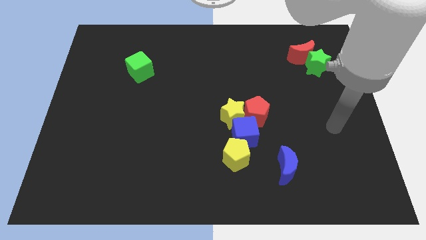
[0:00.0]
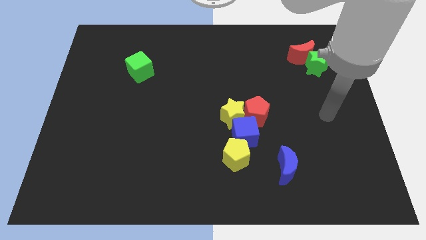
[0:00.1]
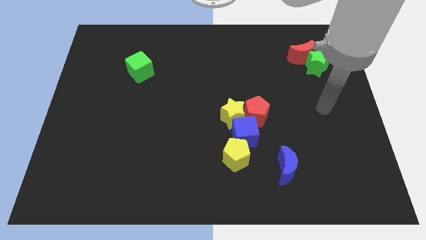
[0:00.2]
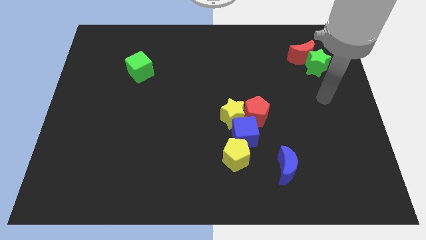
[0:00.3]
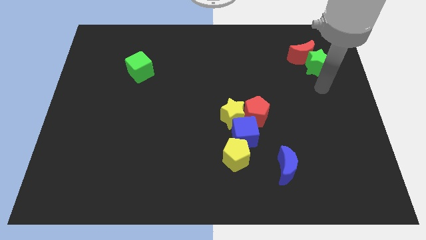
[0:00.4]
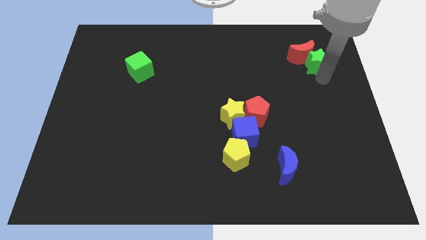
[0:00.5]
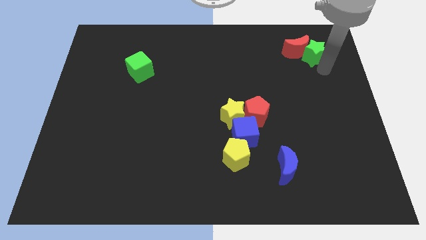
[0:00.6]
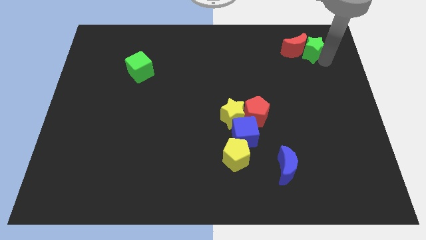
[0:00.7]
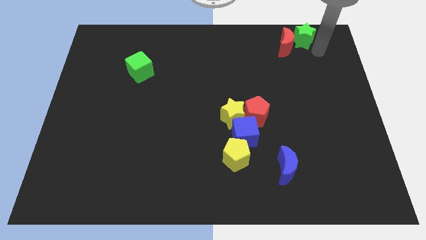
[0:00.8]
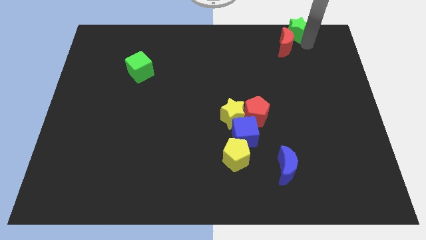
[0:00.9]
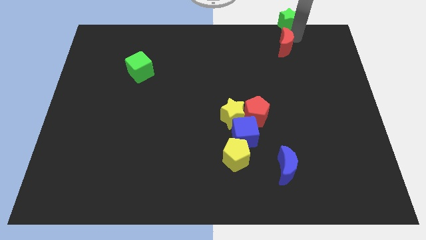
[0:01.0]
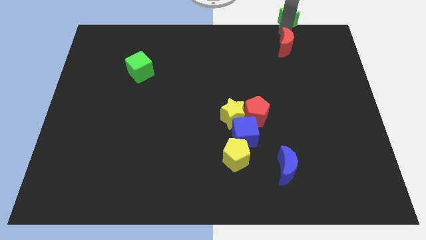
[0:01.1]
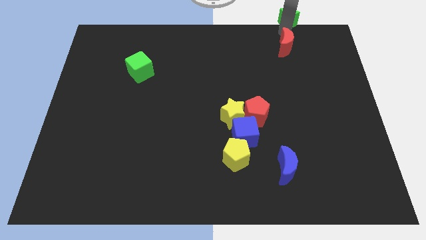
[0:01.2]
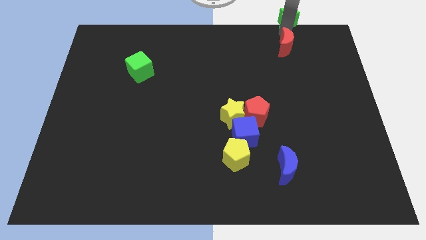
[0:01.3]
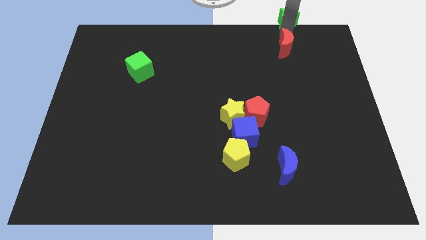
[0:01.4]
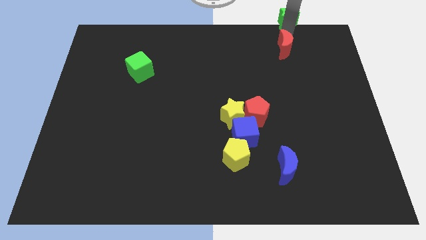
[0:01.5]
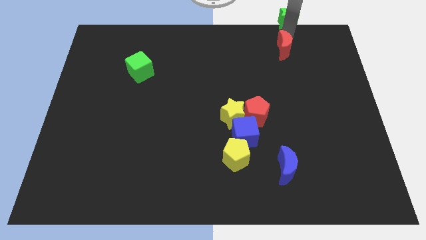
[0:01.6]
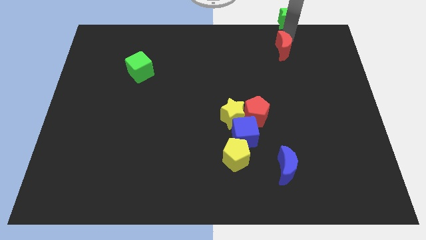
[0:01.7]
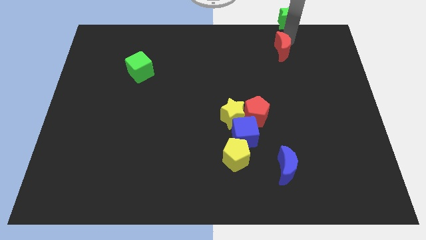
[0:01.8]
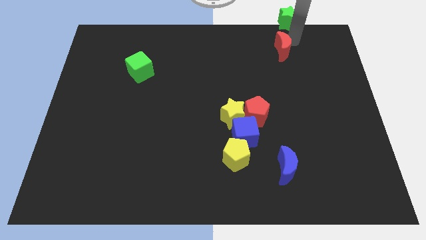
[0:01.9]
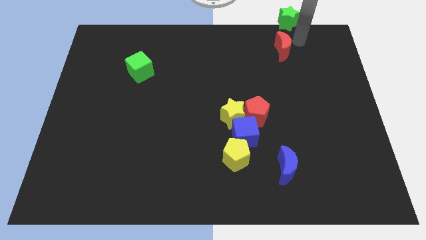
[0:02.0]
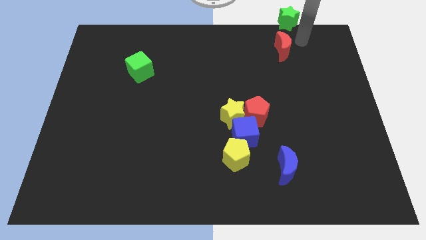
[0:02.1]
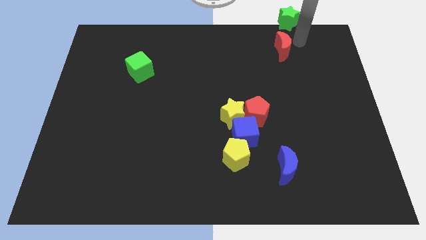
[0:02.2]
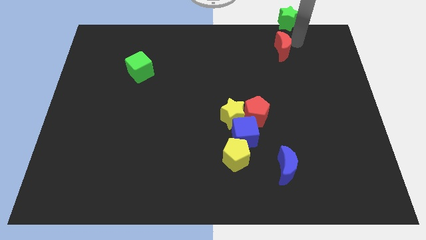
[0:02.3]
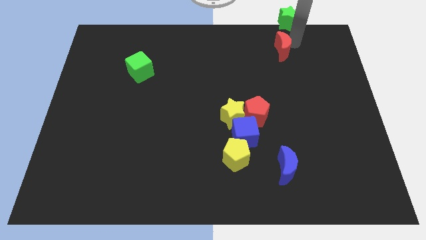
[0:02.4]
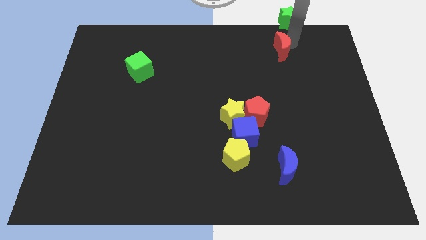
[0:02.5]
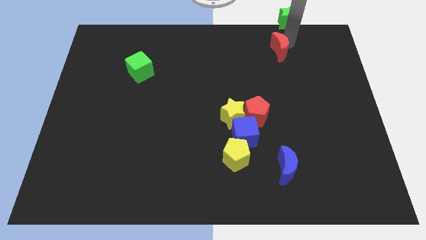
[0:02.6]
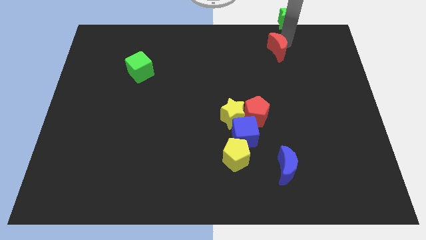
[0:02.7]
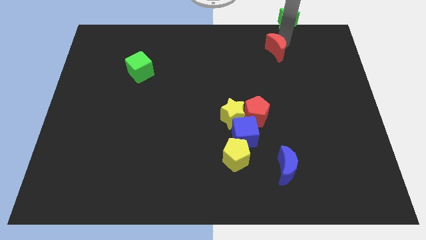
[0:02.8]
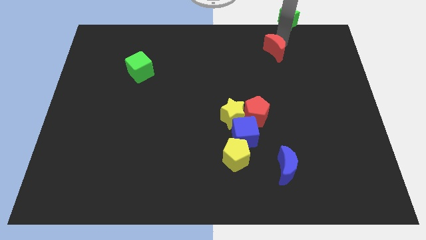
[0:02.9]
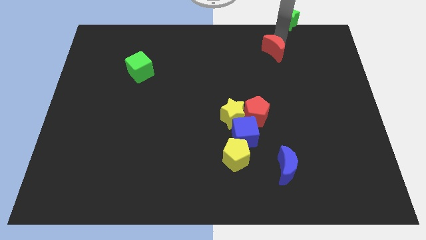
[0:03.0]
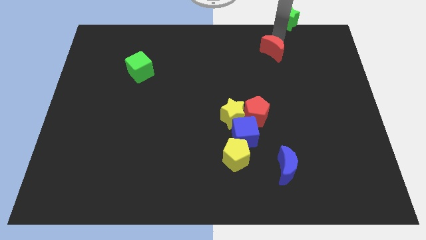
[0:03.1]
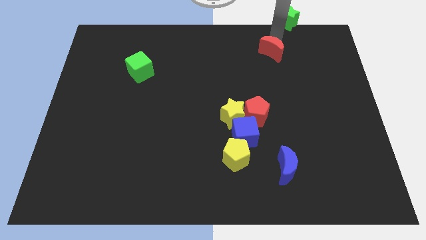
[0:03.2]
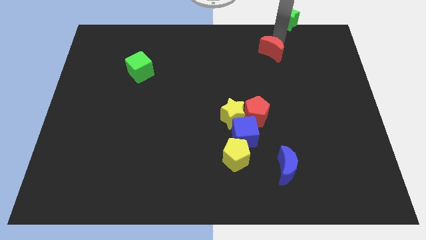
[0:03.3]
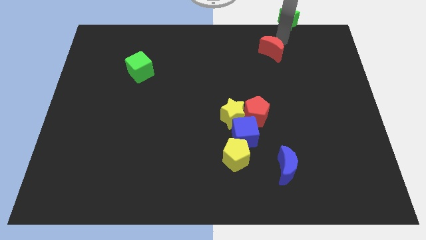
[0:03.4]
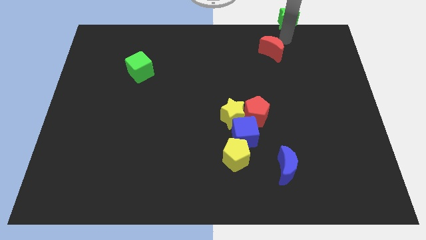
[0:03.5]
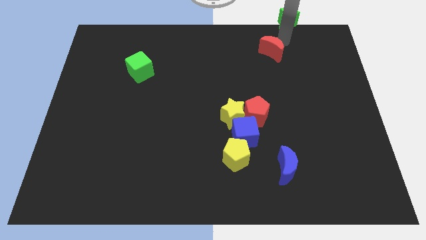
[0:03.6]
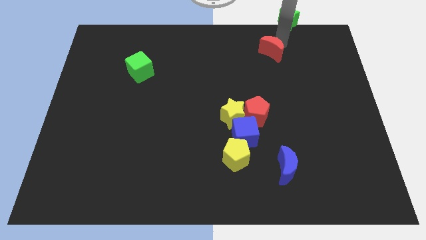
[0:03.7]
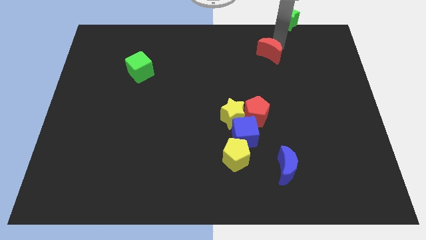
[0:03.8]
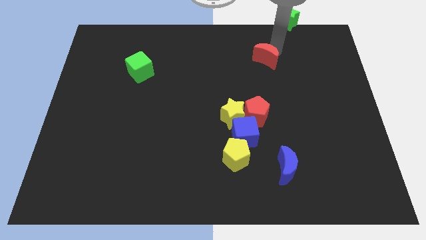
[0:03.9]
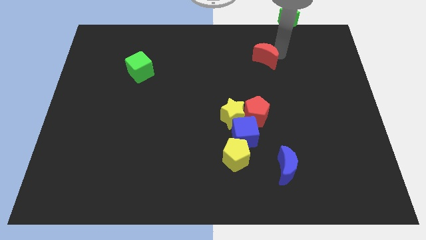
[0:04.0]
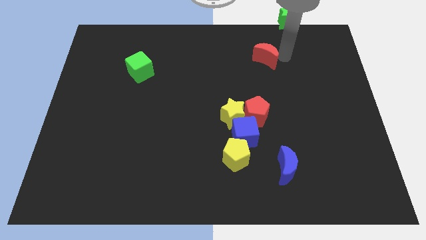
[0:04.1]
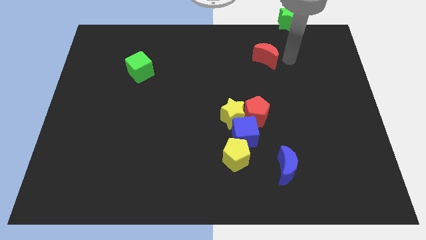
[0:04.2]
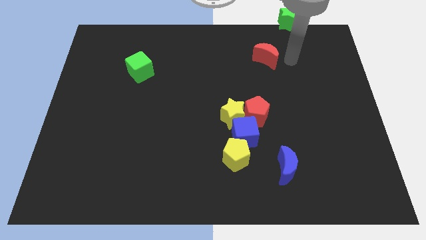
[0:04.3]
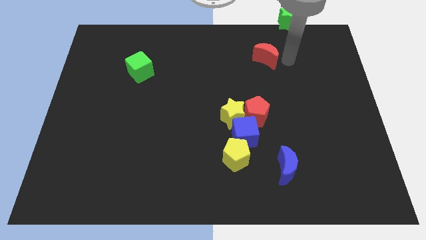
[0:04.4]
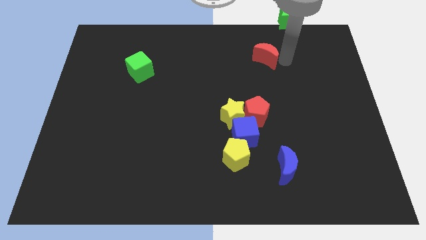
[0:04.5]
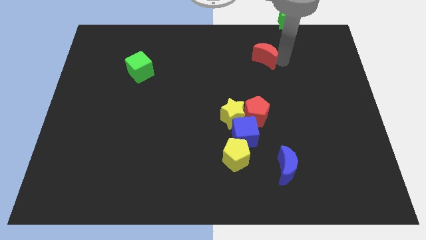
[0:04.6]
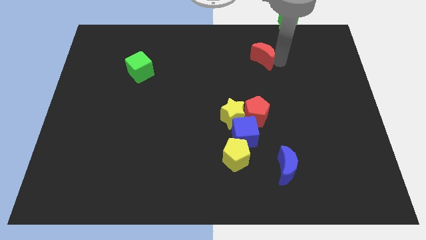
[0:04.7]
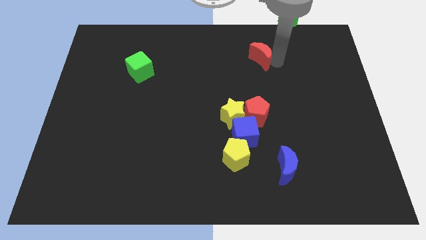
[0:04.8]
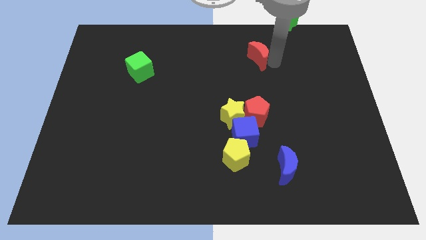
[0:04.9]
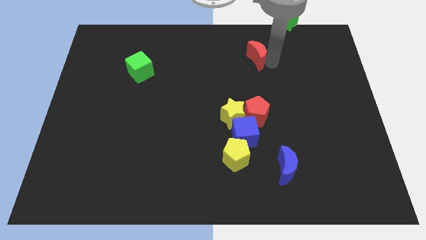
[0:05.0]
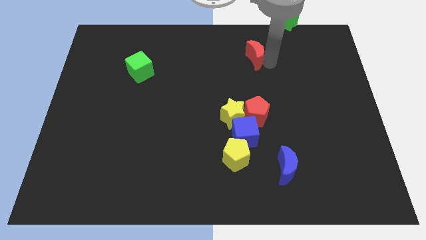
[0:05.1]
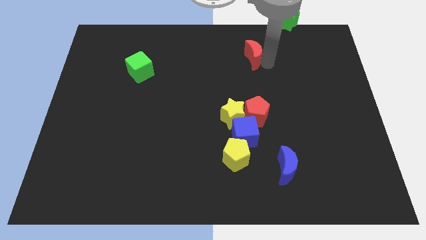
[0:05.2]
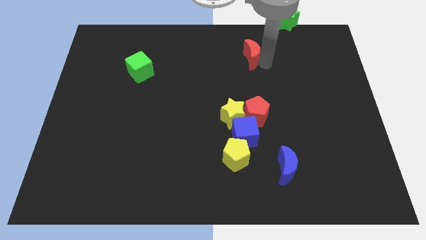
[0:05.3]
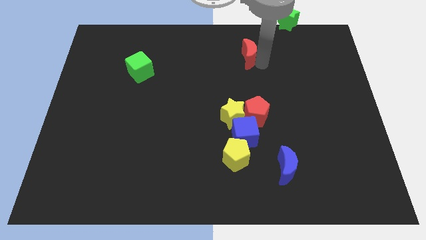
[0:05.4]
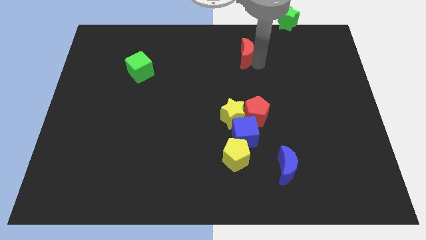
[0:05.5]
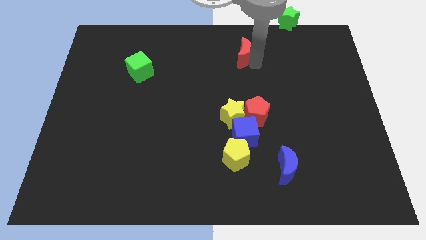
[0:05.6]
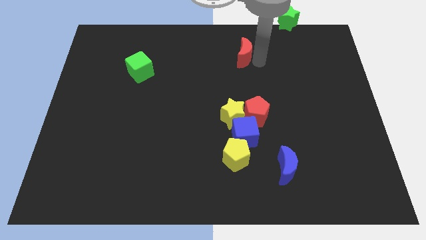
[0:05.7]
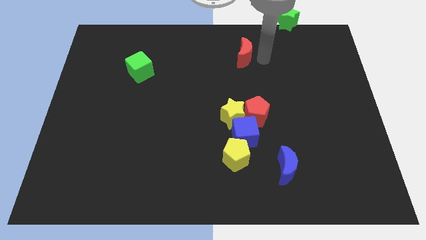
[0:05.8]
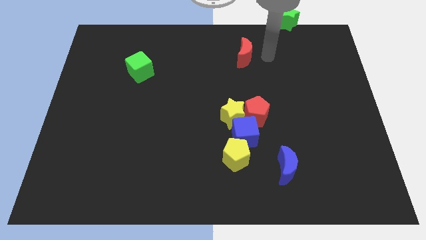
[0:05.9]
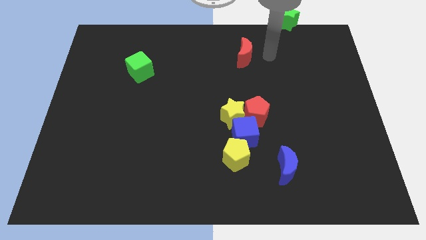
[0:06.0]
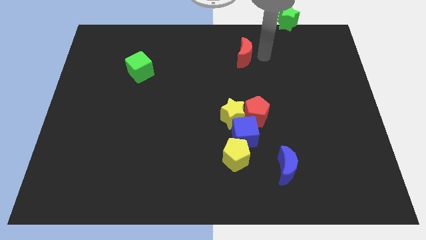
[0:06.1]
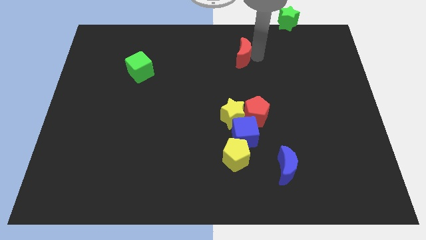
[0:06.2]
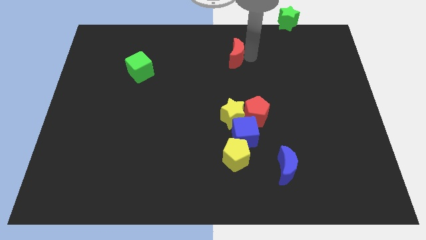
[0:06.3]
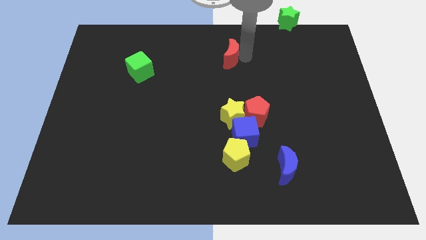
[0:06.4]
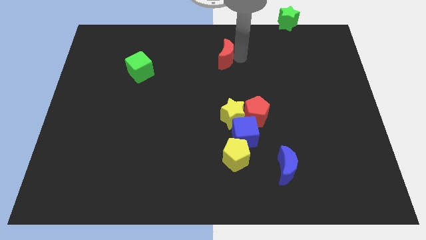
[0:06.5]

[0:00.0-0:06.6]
move the red moon left

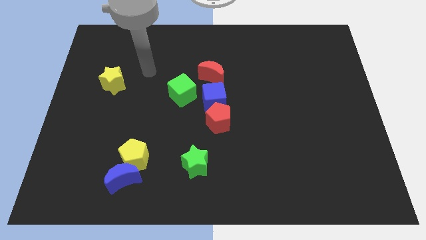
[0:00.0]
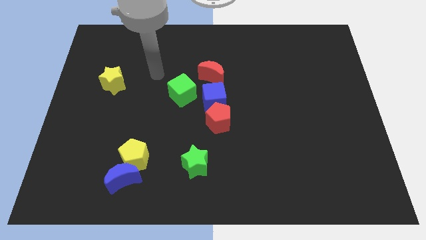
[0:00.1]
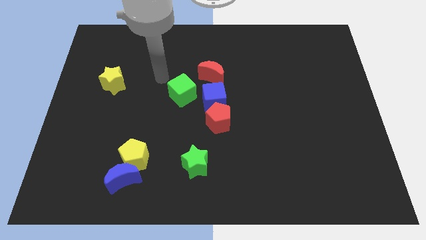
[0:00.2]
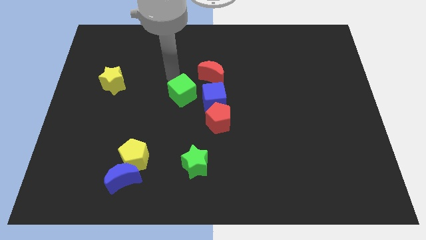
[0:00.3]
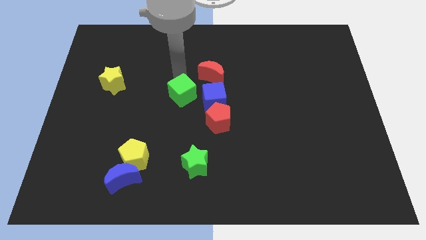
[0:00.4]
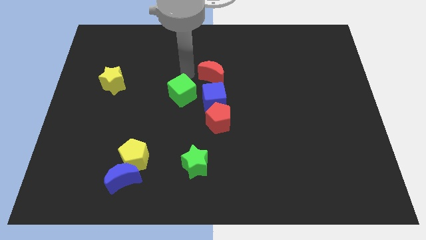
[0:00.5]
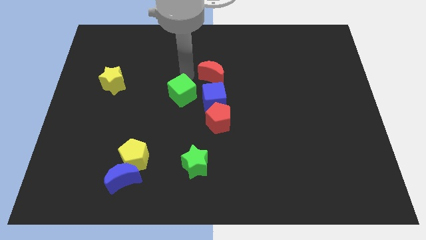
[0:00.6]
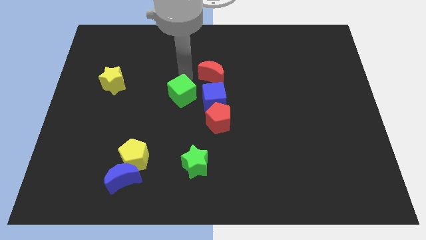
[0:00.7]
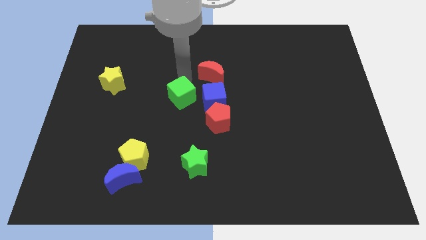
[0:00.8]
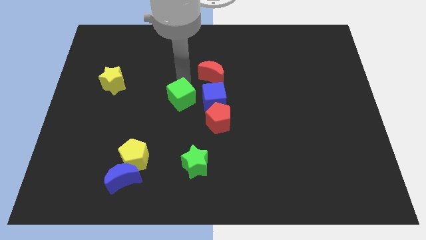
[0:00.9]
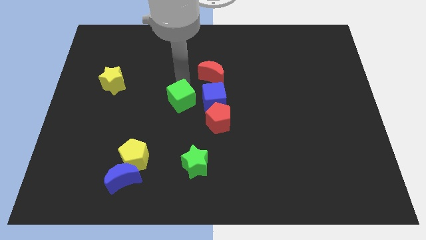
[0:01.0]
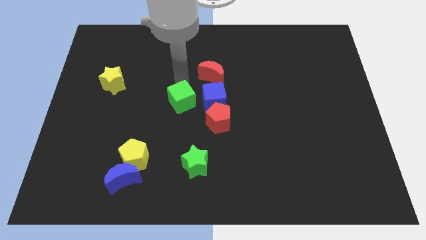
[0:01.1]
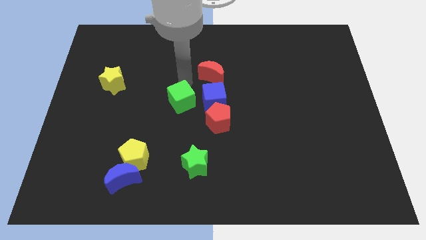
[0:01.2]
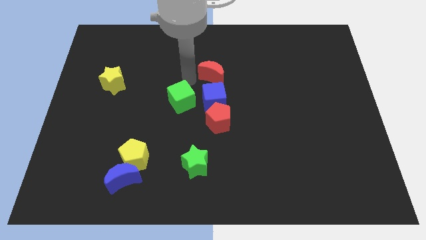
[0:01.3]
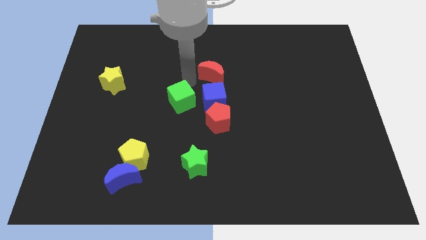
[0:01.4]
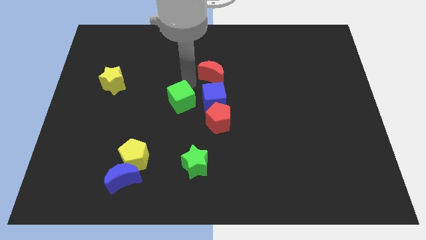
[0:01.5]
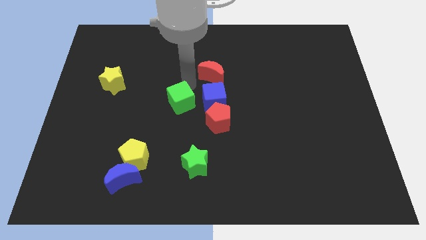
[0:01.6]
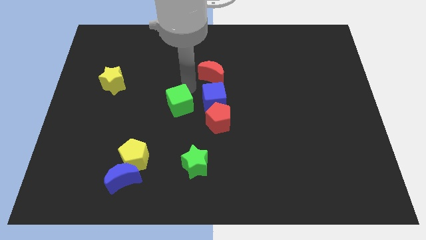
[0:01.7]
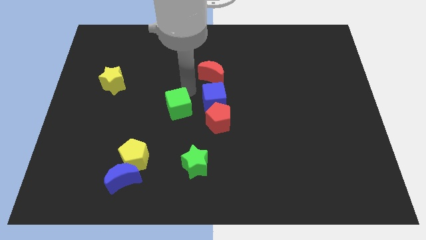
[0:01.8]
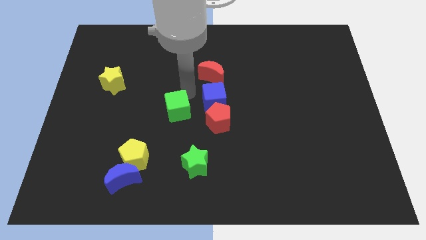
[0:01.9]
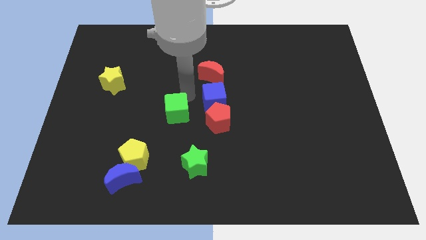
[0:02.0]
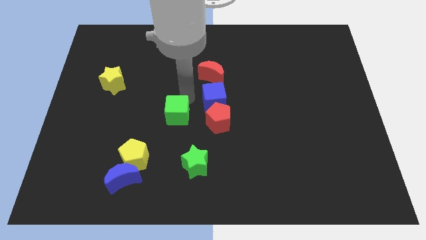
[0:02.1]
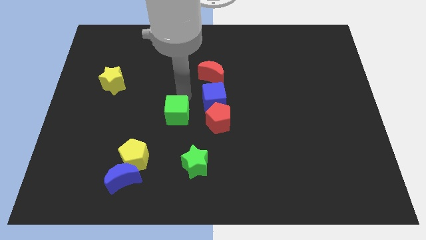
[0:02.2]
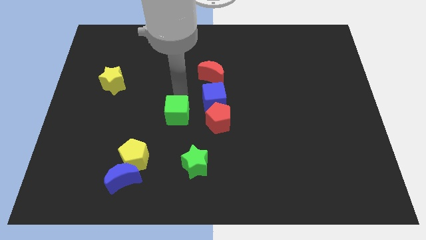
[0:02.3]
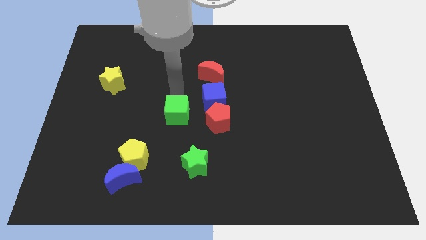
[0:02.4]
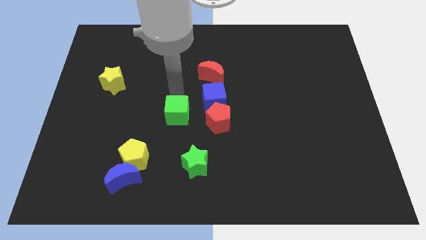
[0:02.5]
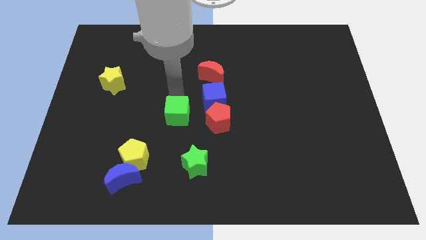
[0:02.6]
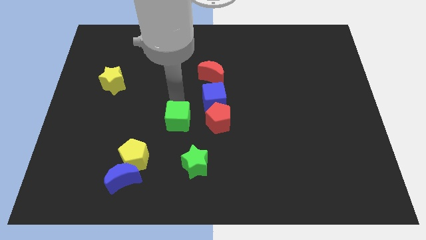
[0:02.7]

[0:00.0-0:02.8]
move the green cube a bit downwards
